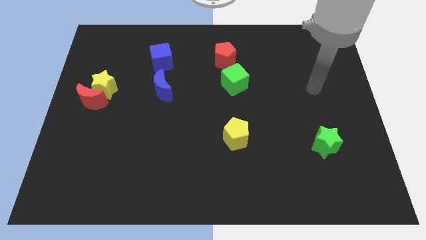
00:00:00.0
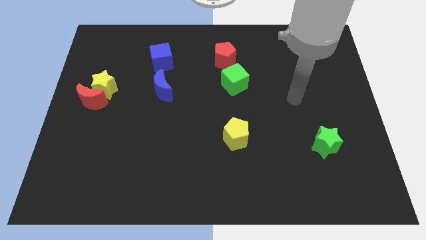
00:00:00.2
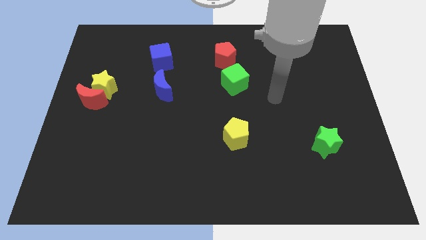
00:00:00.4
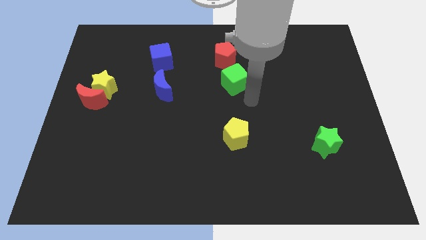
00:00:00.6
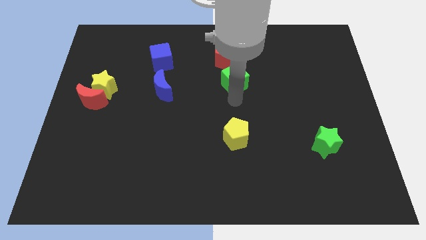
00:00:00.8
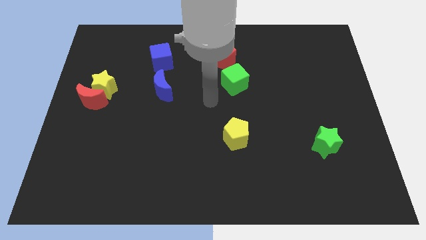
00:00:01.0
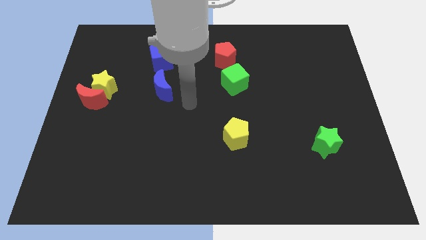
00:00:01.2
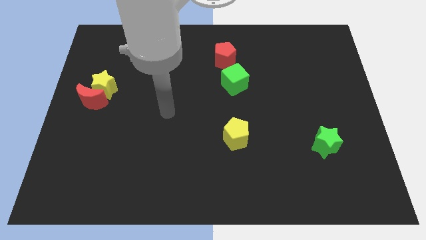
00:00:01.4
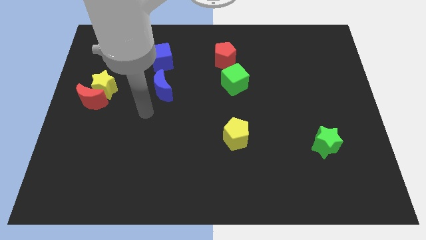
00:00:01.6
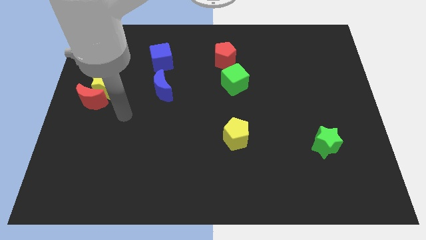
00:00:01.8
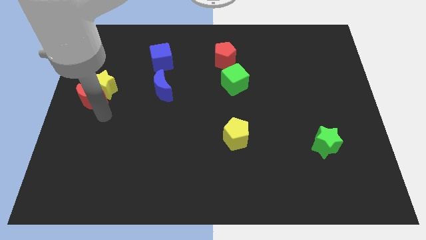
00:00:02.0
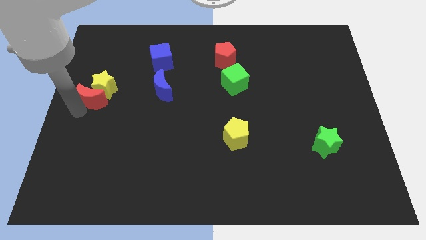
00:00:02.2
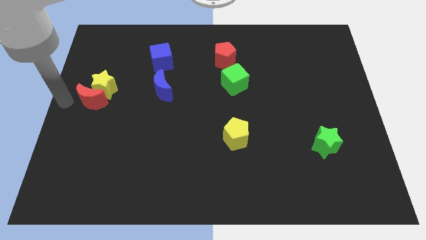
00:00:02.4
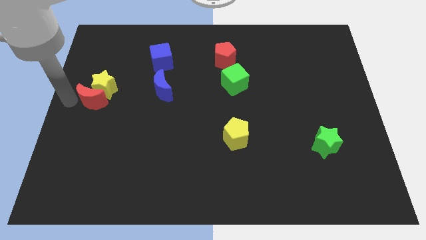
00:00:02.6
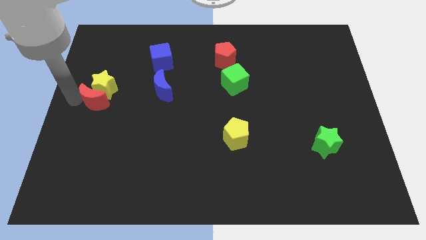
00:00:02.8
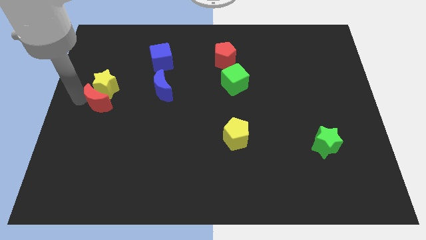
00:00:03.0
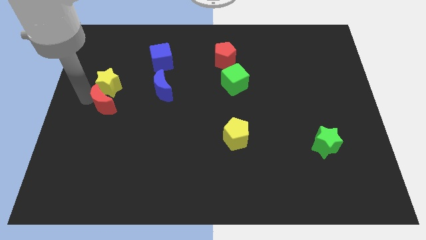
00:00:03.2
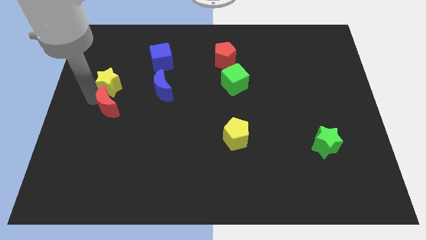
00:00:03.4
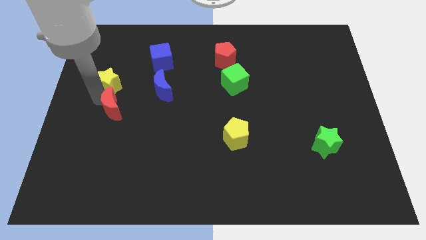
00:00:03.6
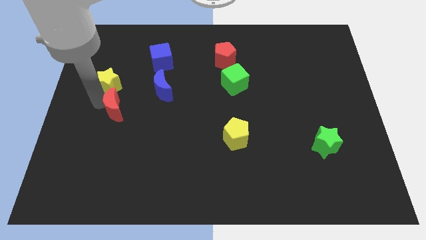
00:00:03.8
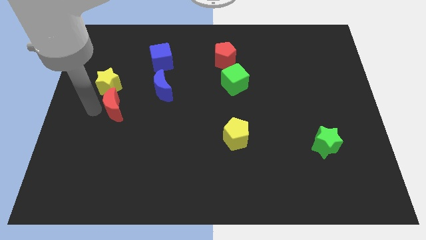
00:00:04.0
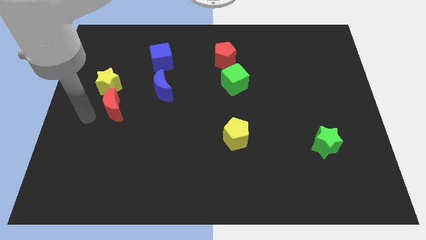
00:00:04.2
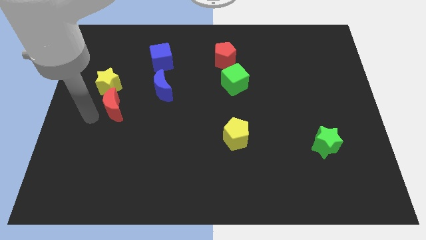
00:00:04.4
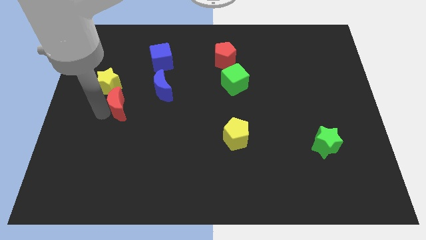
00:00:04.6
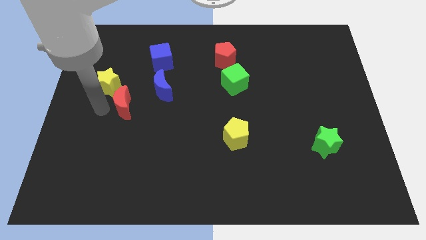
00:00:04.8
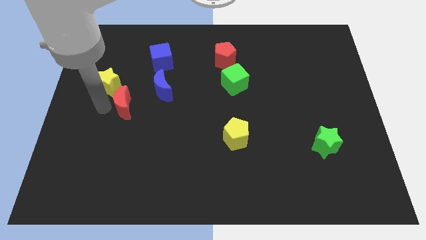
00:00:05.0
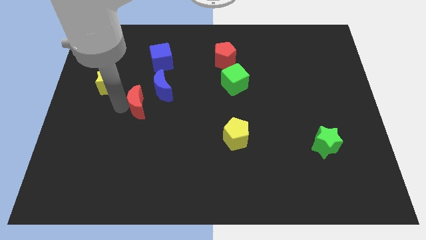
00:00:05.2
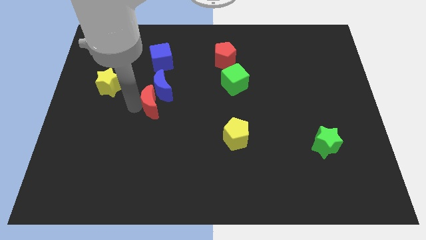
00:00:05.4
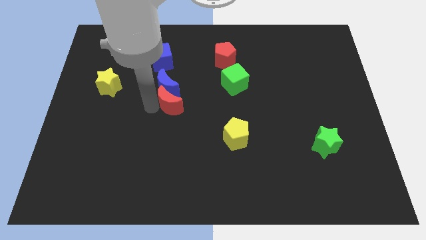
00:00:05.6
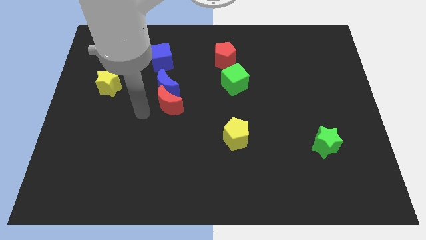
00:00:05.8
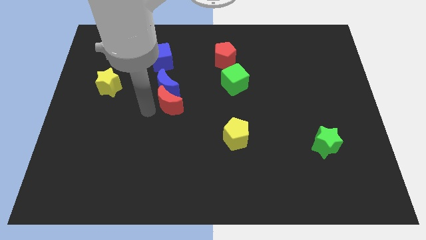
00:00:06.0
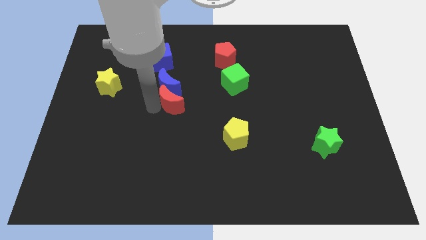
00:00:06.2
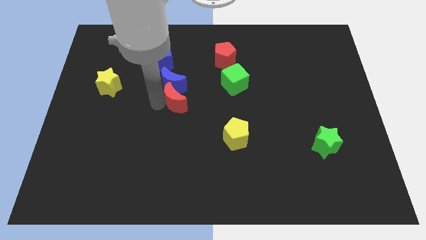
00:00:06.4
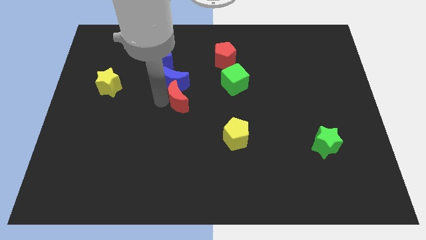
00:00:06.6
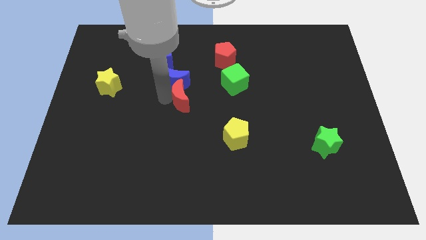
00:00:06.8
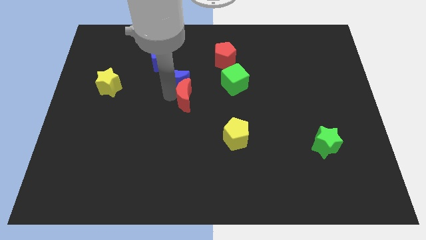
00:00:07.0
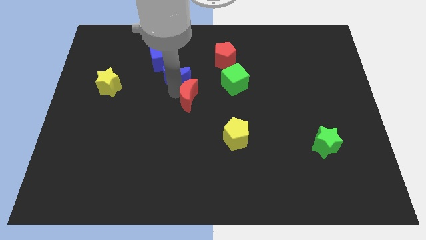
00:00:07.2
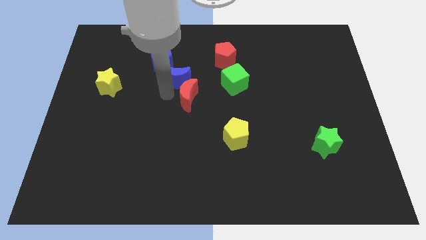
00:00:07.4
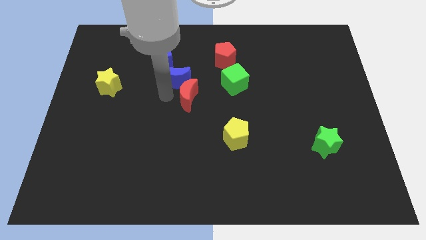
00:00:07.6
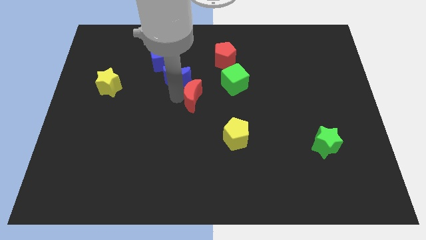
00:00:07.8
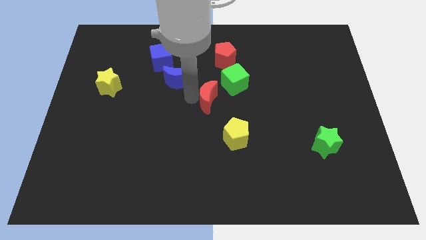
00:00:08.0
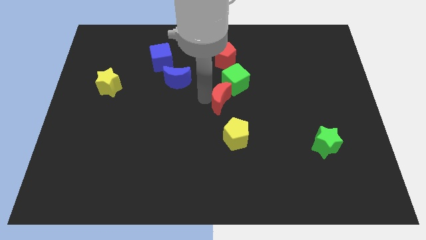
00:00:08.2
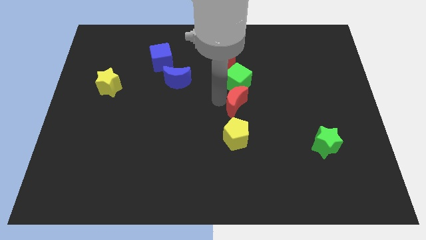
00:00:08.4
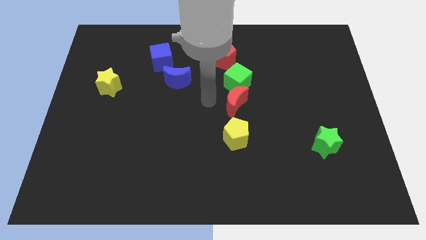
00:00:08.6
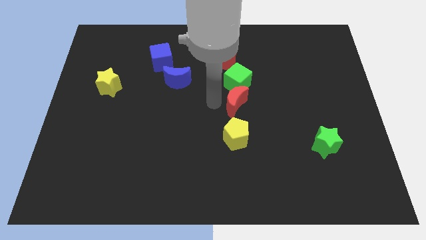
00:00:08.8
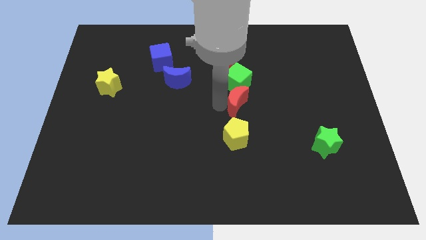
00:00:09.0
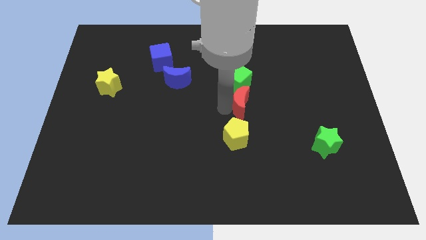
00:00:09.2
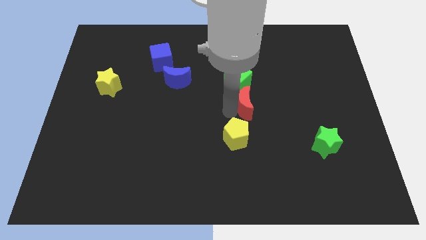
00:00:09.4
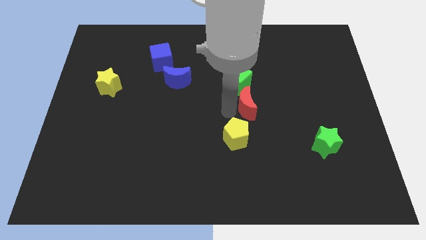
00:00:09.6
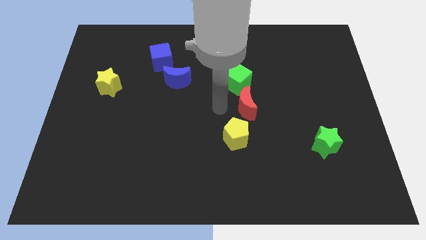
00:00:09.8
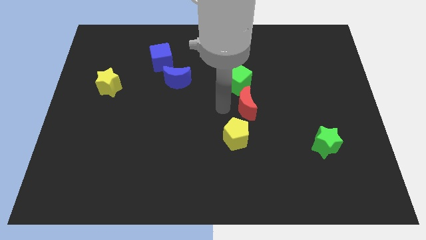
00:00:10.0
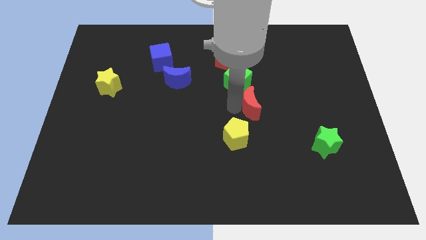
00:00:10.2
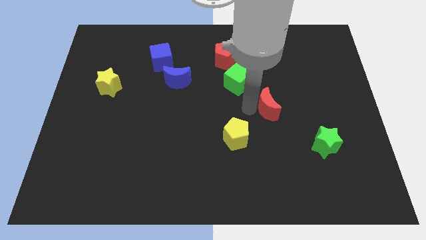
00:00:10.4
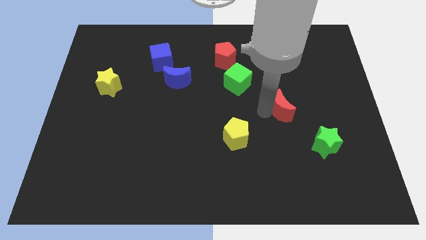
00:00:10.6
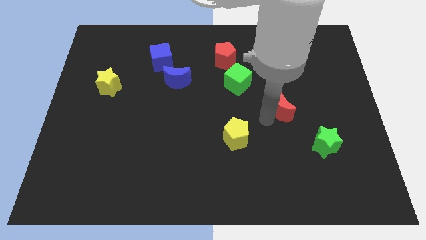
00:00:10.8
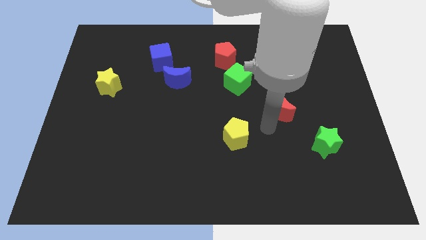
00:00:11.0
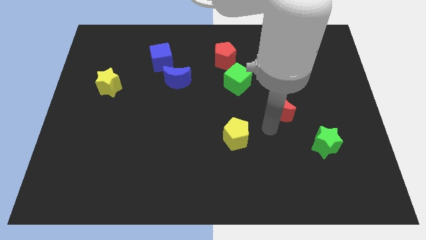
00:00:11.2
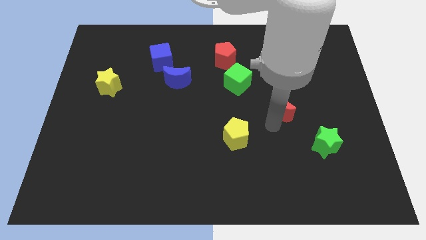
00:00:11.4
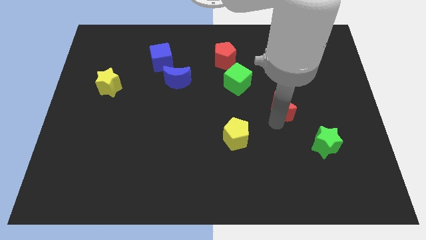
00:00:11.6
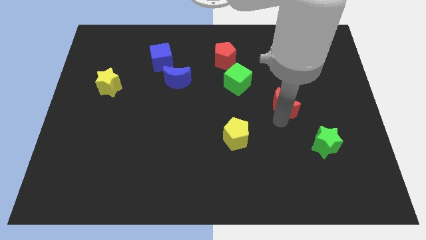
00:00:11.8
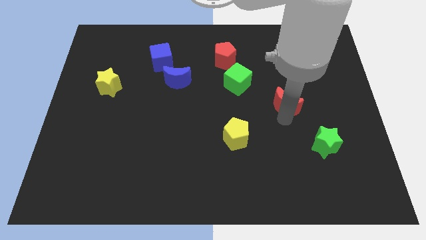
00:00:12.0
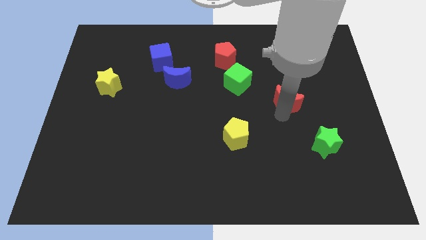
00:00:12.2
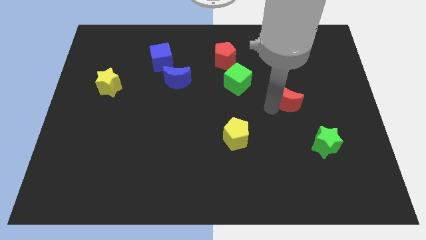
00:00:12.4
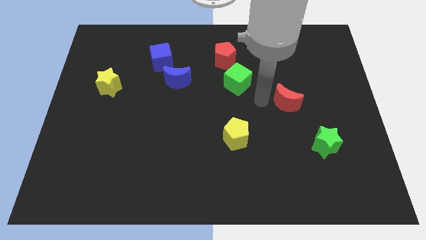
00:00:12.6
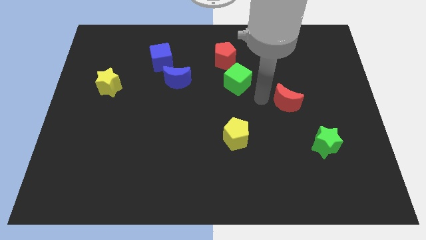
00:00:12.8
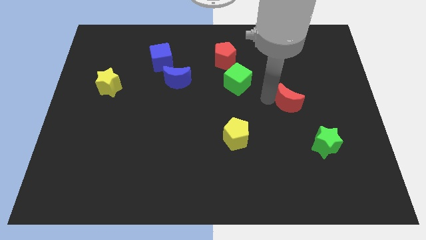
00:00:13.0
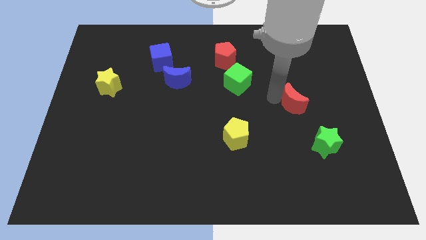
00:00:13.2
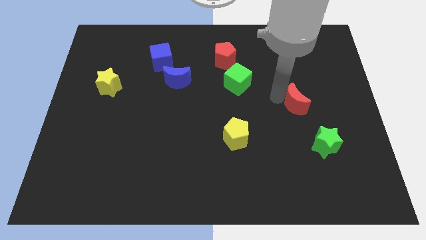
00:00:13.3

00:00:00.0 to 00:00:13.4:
push the red moon above the green star
